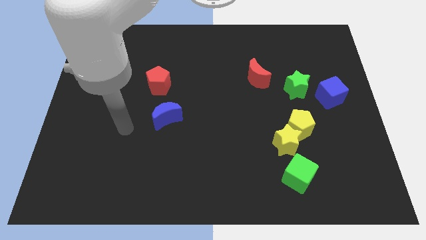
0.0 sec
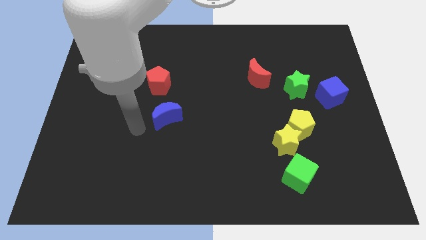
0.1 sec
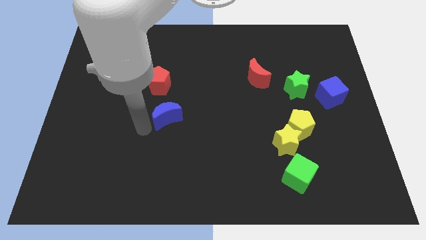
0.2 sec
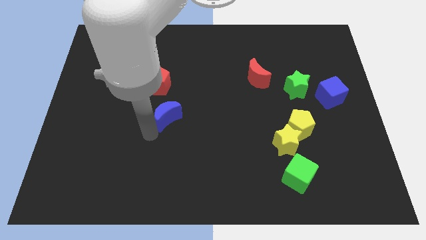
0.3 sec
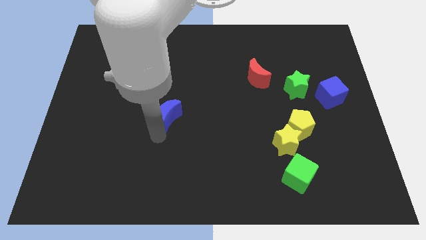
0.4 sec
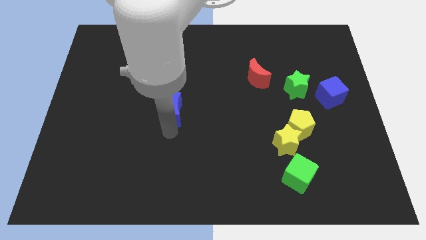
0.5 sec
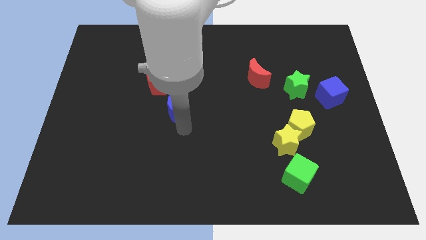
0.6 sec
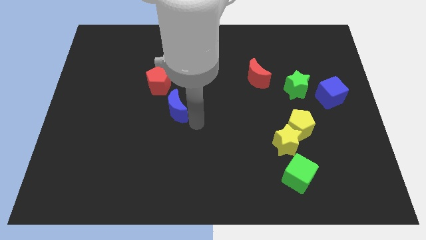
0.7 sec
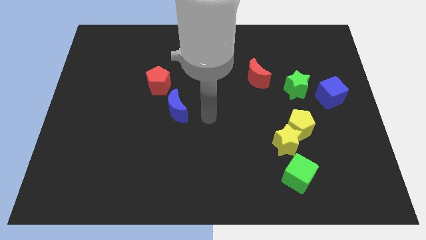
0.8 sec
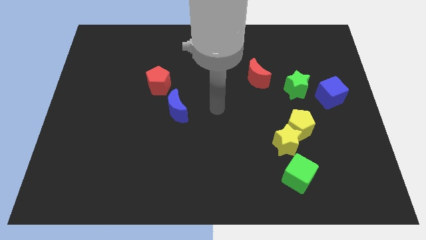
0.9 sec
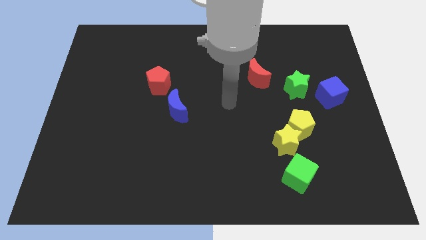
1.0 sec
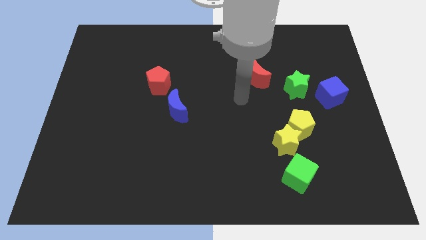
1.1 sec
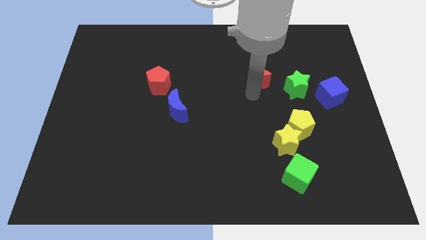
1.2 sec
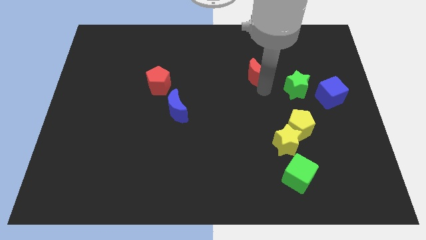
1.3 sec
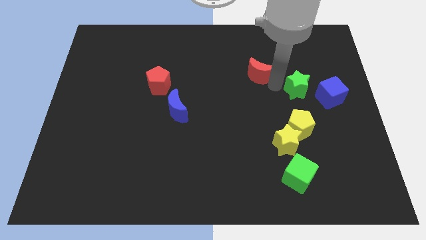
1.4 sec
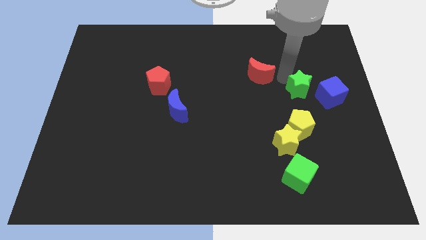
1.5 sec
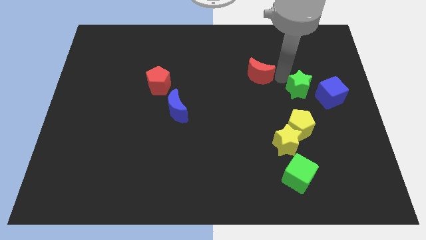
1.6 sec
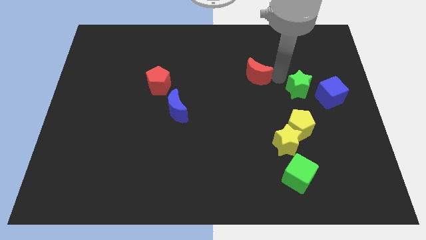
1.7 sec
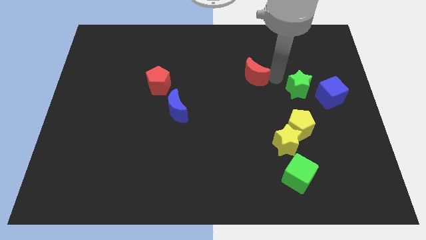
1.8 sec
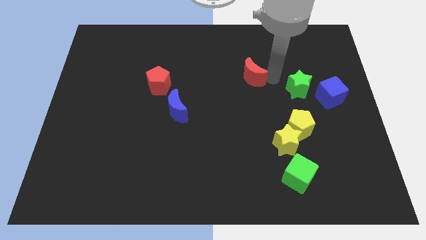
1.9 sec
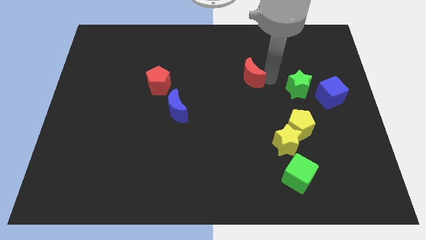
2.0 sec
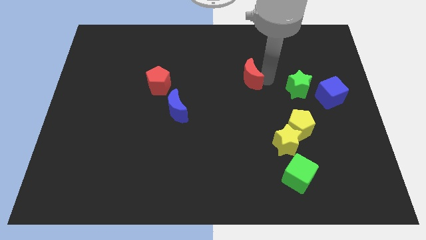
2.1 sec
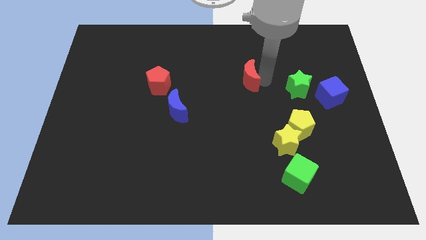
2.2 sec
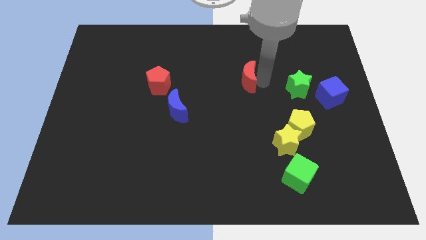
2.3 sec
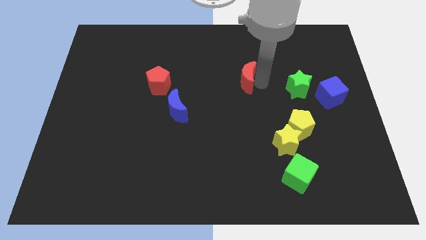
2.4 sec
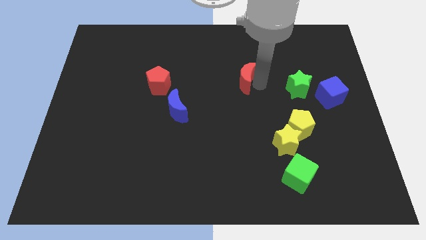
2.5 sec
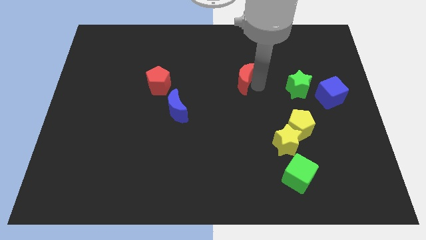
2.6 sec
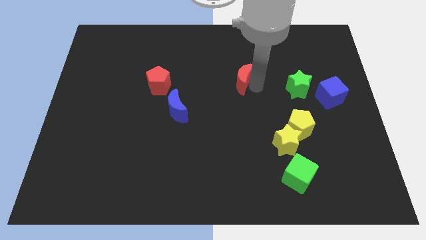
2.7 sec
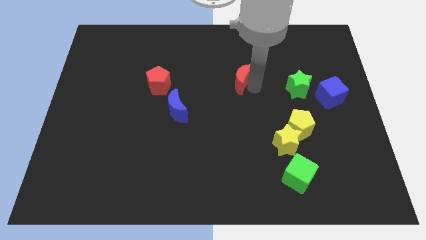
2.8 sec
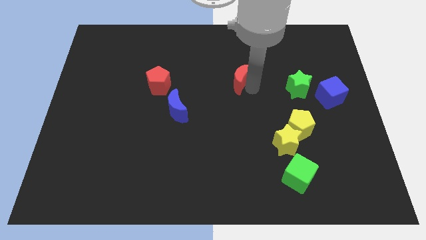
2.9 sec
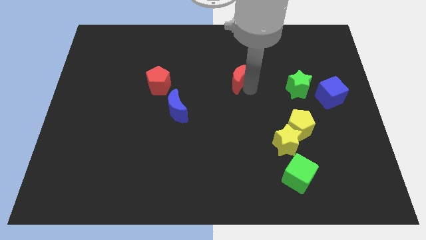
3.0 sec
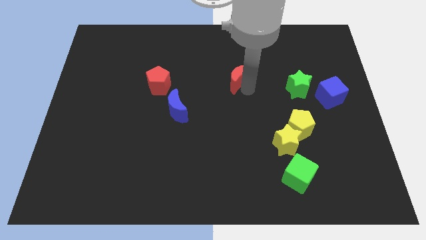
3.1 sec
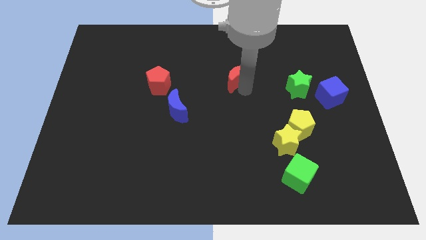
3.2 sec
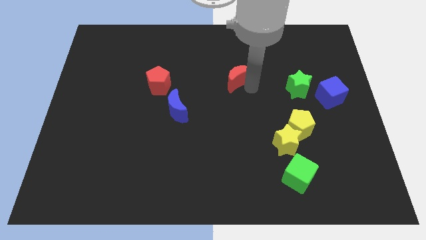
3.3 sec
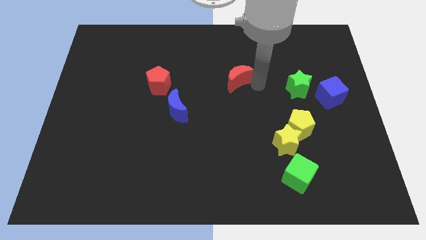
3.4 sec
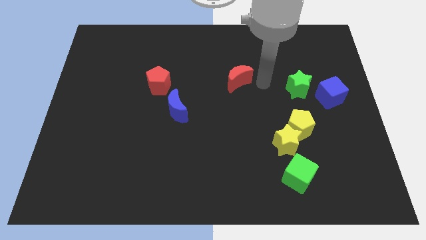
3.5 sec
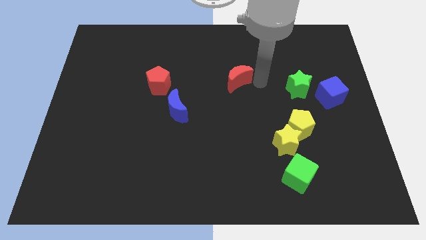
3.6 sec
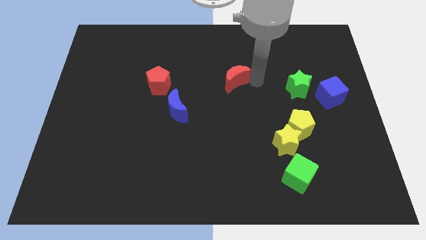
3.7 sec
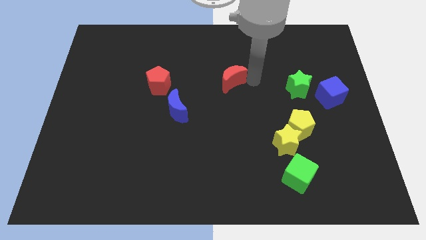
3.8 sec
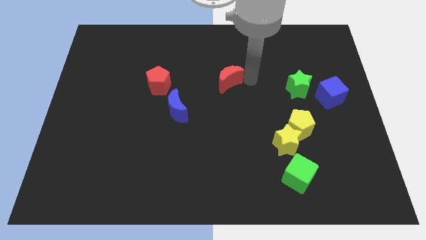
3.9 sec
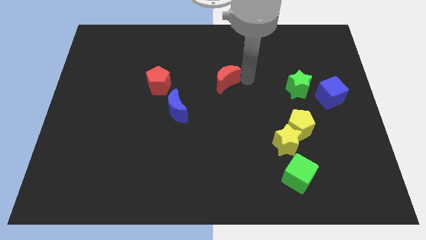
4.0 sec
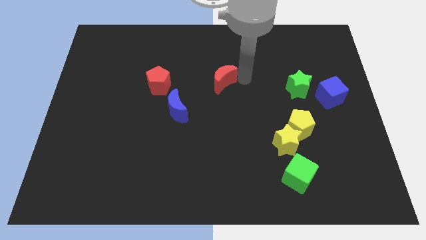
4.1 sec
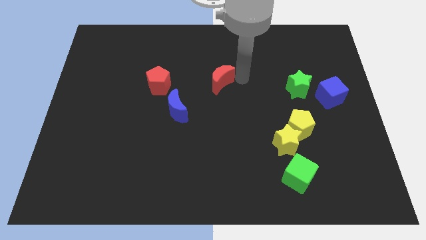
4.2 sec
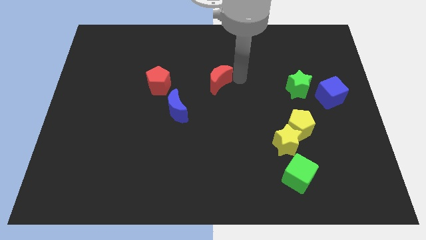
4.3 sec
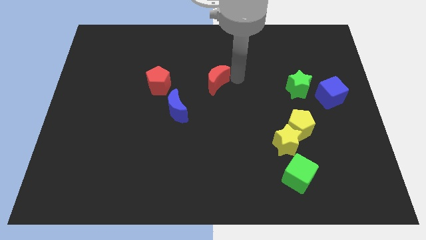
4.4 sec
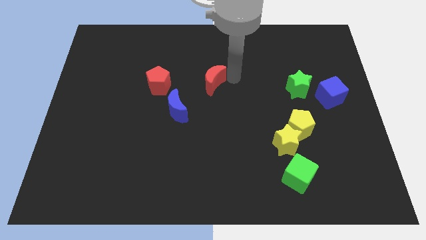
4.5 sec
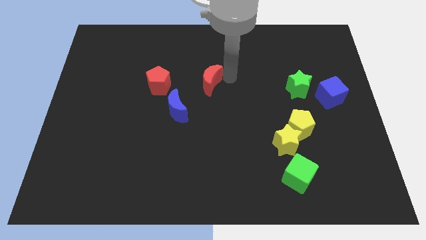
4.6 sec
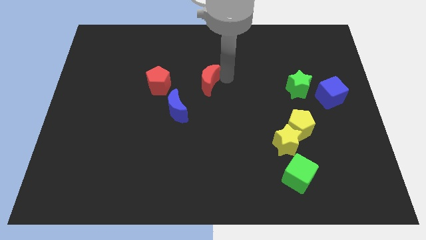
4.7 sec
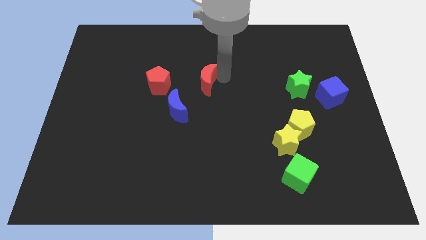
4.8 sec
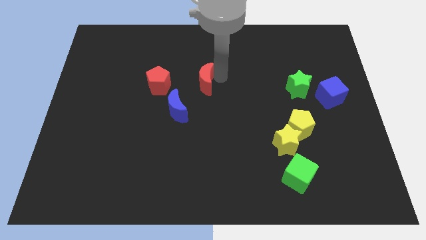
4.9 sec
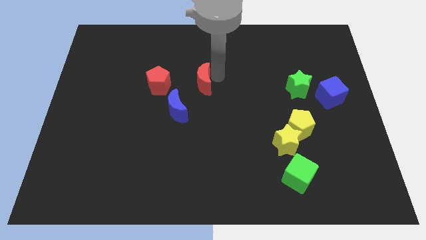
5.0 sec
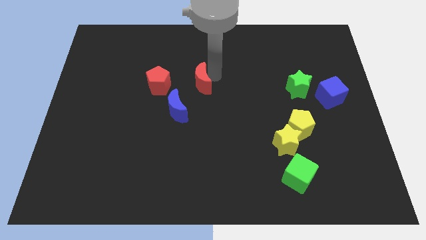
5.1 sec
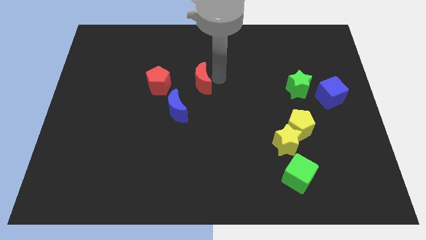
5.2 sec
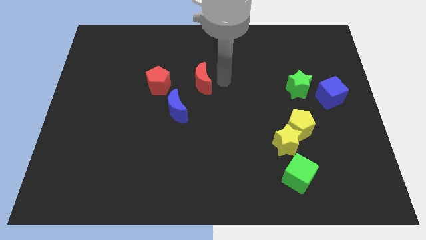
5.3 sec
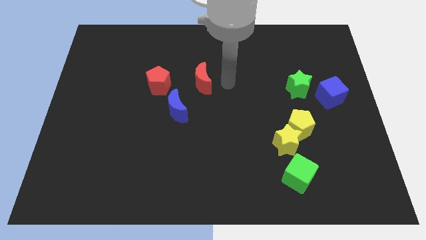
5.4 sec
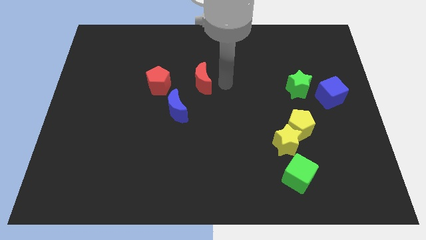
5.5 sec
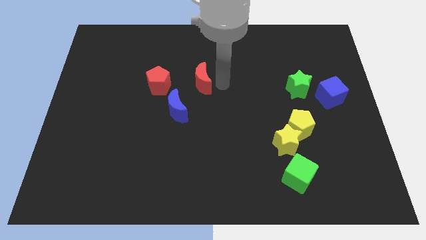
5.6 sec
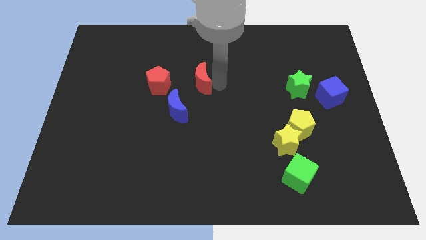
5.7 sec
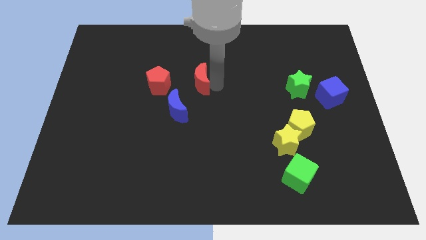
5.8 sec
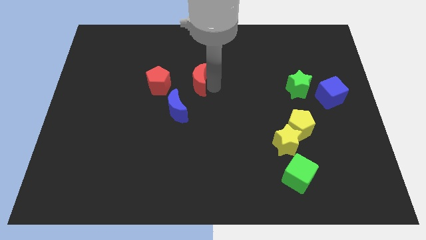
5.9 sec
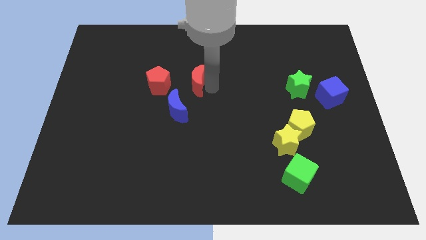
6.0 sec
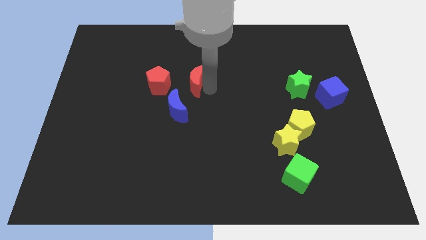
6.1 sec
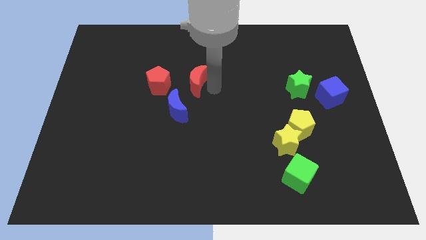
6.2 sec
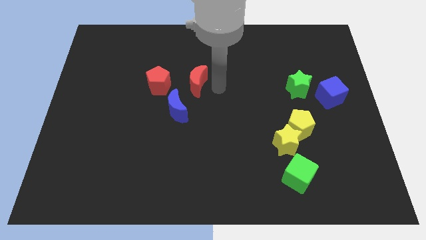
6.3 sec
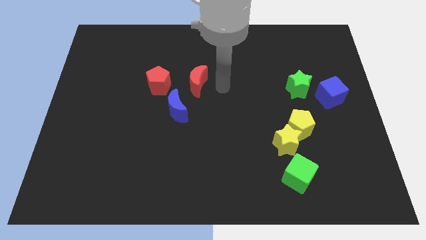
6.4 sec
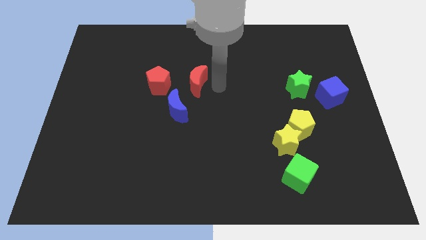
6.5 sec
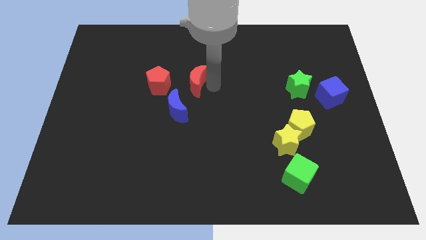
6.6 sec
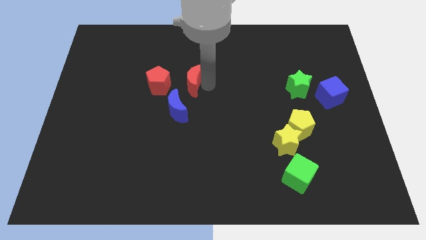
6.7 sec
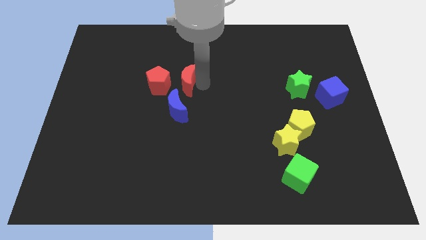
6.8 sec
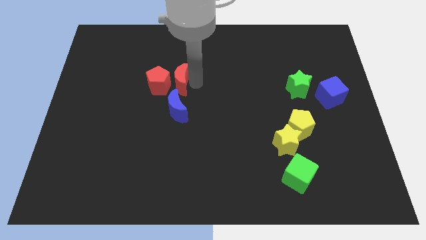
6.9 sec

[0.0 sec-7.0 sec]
push the red moon next to the red pentagon

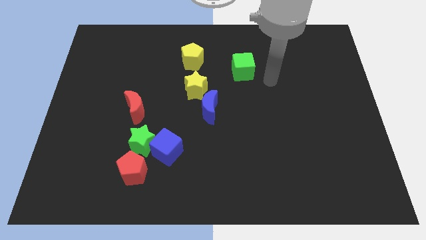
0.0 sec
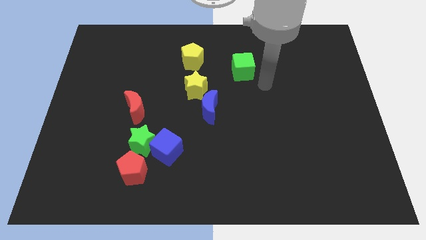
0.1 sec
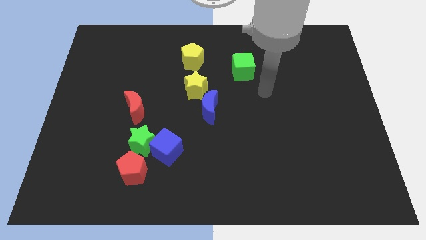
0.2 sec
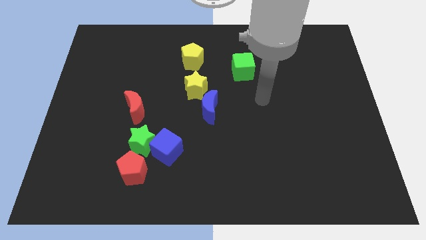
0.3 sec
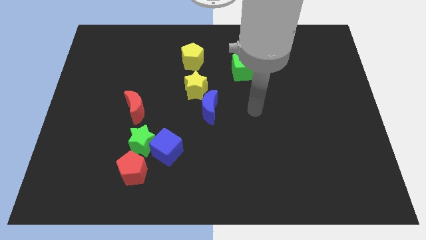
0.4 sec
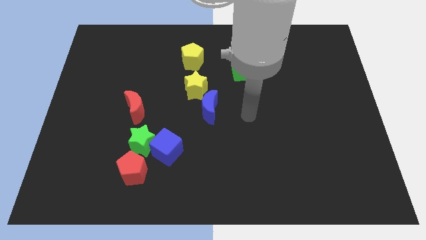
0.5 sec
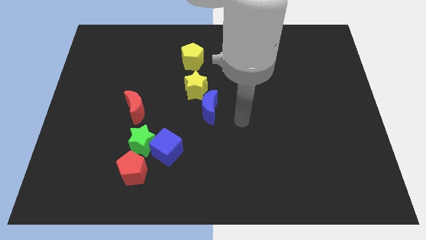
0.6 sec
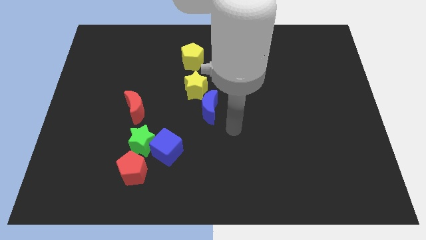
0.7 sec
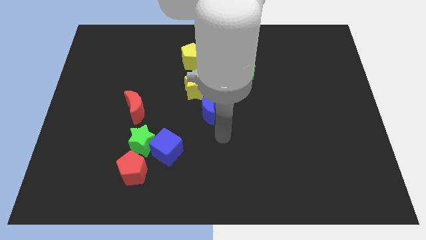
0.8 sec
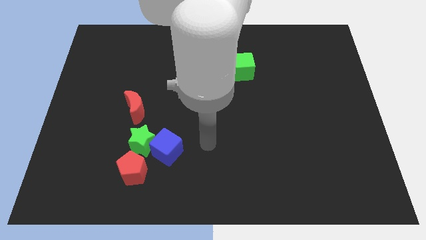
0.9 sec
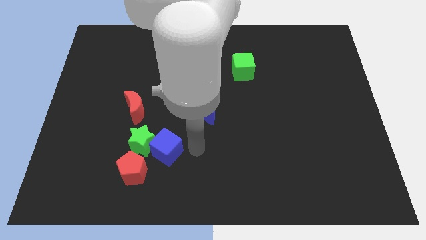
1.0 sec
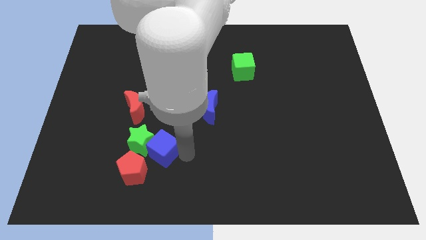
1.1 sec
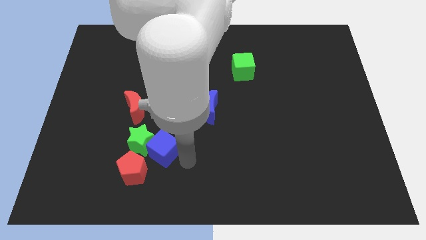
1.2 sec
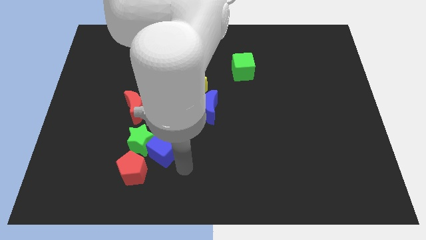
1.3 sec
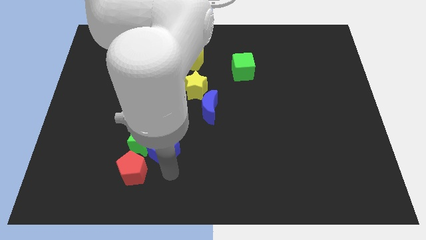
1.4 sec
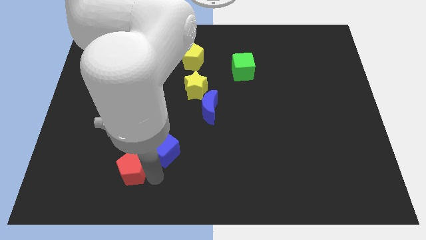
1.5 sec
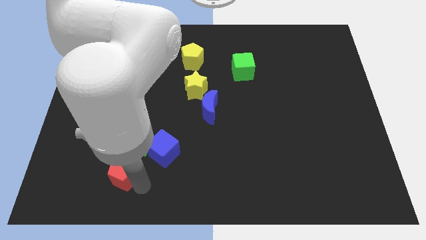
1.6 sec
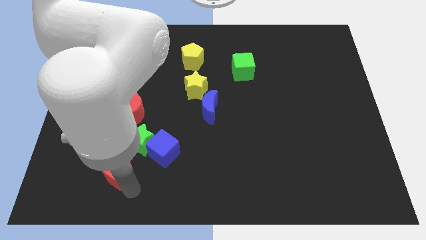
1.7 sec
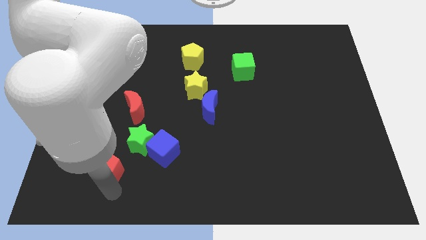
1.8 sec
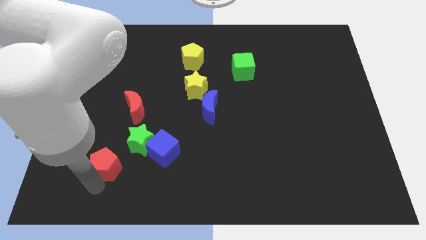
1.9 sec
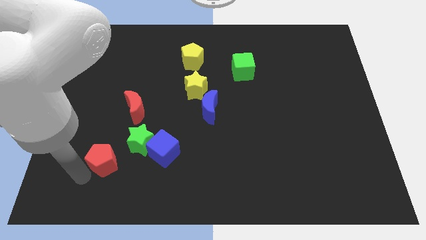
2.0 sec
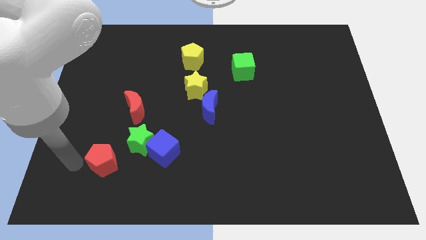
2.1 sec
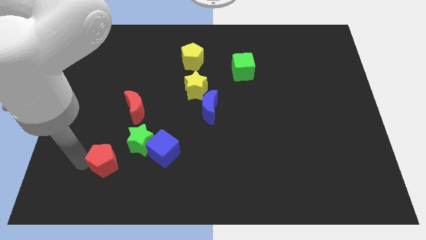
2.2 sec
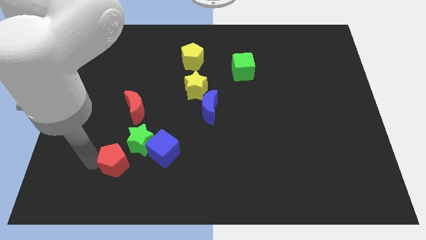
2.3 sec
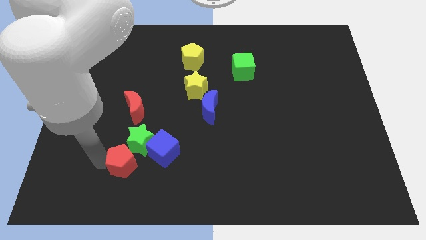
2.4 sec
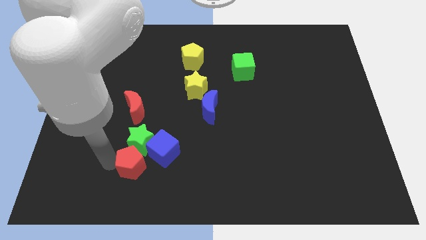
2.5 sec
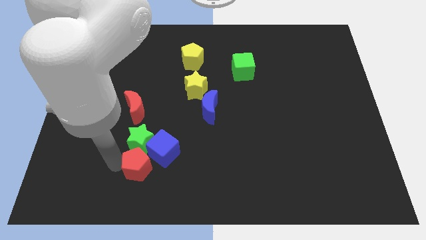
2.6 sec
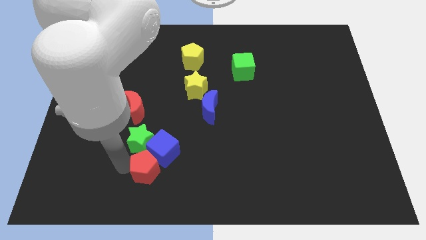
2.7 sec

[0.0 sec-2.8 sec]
put the red pentagon next to the blue cube
